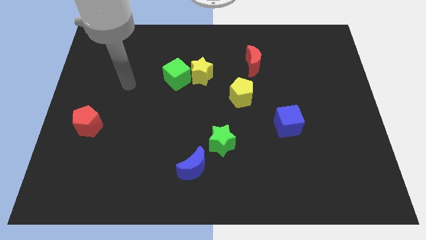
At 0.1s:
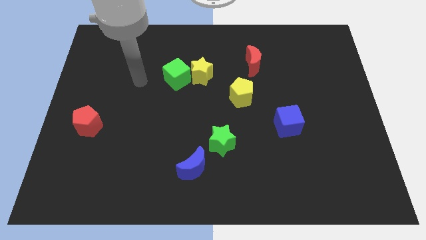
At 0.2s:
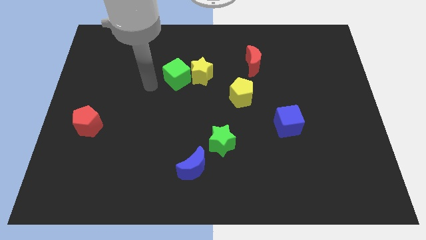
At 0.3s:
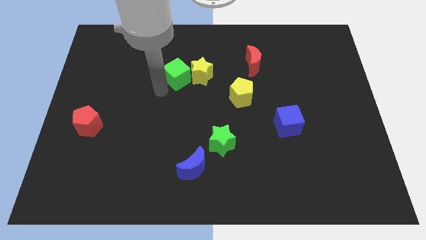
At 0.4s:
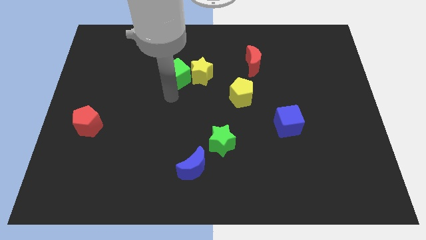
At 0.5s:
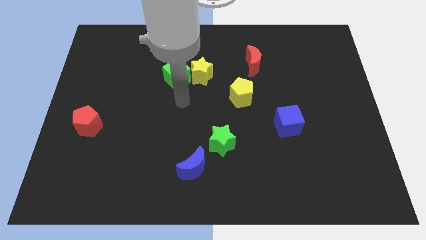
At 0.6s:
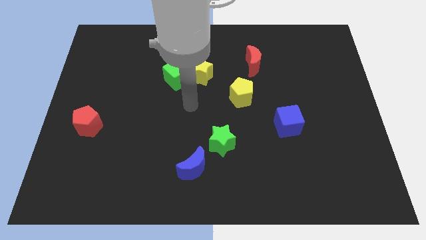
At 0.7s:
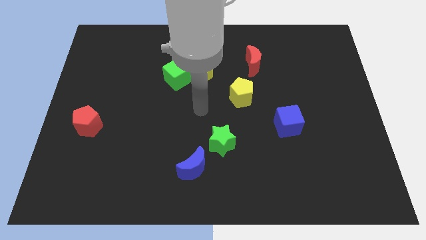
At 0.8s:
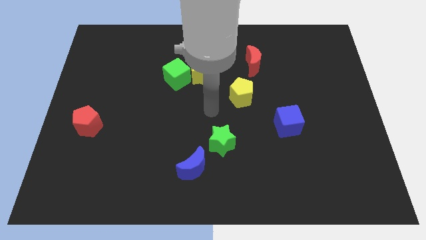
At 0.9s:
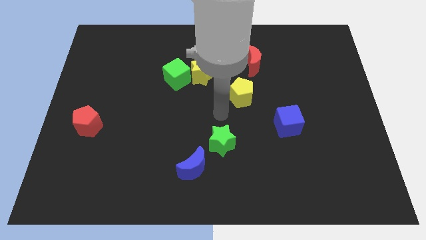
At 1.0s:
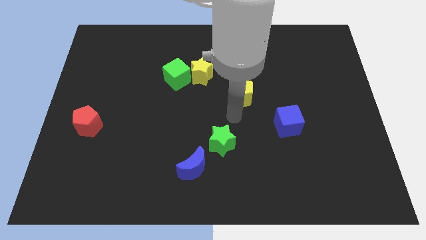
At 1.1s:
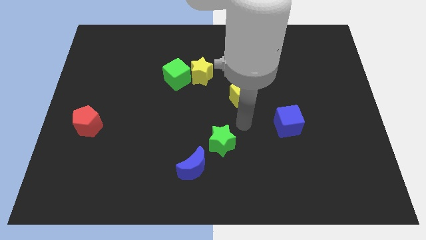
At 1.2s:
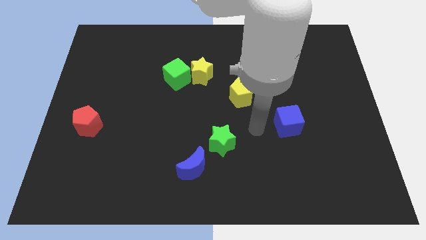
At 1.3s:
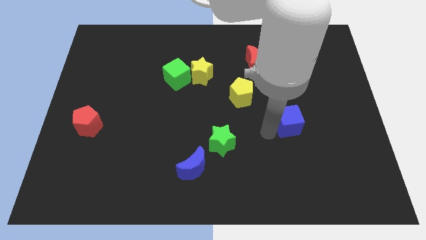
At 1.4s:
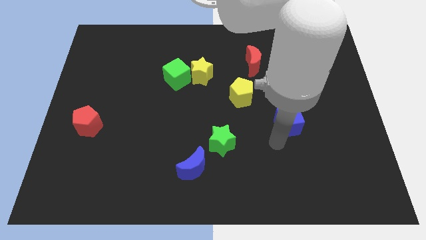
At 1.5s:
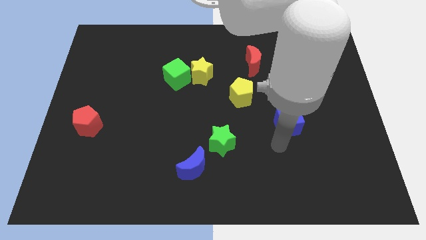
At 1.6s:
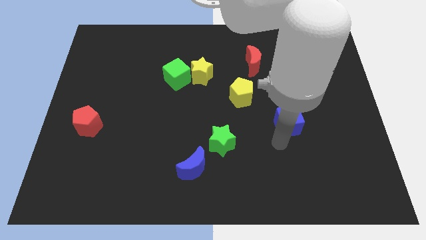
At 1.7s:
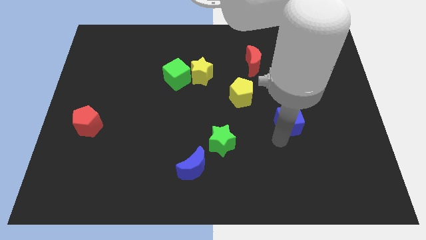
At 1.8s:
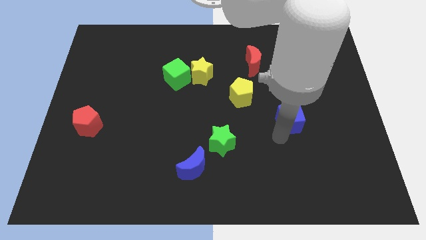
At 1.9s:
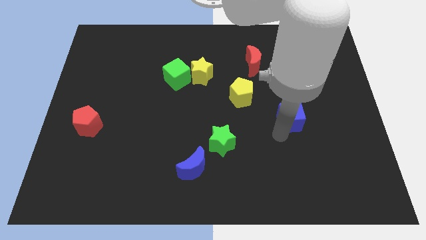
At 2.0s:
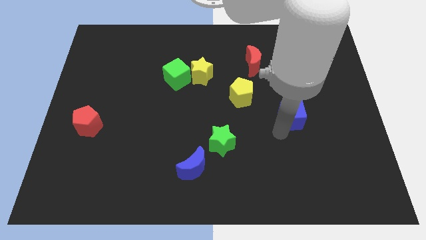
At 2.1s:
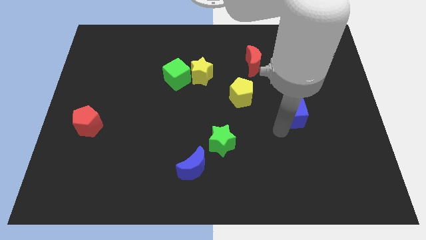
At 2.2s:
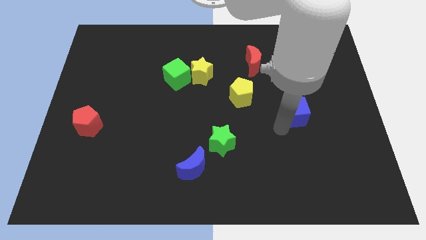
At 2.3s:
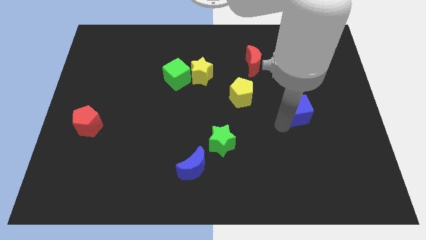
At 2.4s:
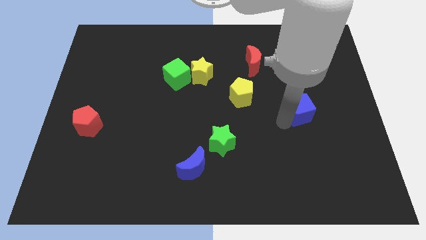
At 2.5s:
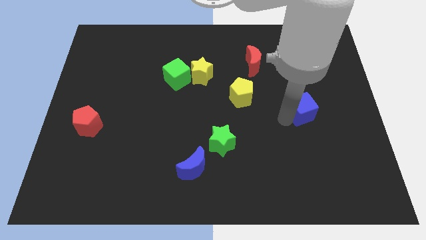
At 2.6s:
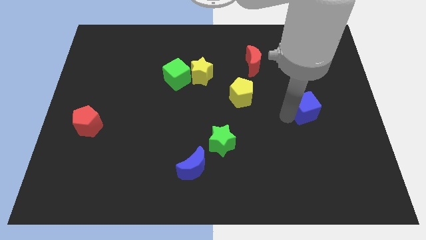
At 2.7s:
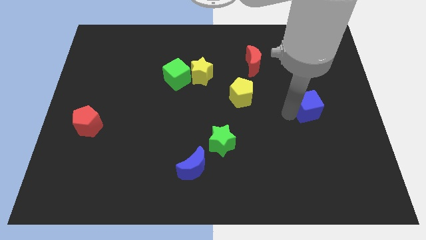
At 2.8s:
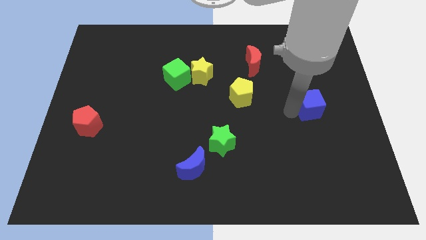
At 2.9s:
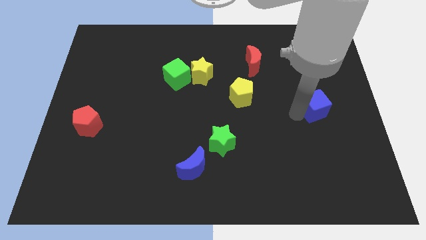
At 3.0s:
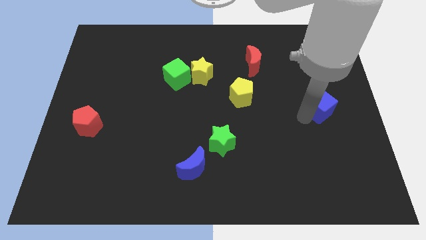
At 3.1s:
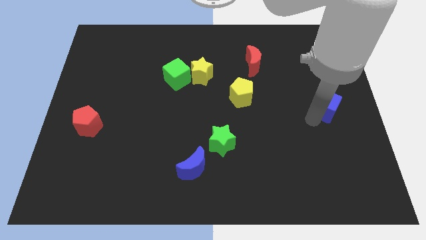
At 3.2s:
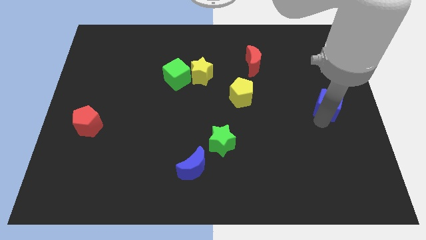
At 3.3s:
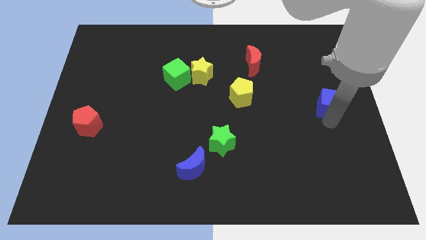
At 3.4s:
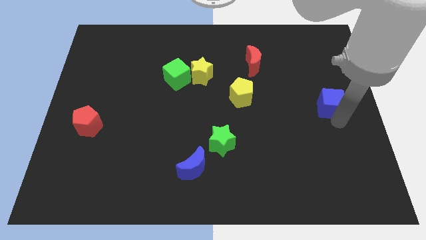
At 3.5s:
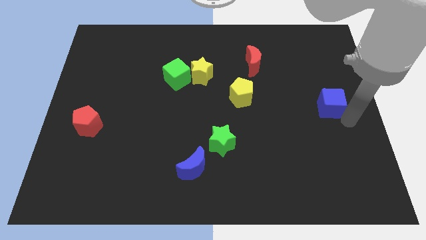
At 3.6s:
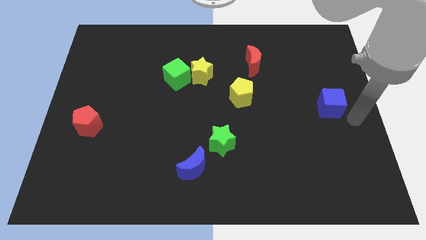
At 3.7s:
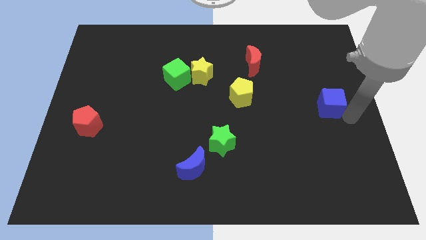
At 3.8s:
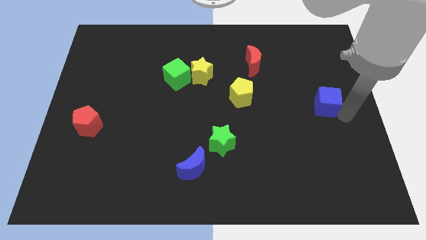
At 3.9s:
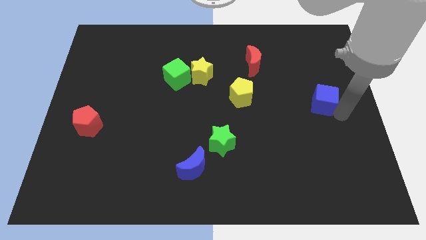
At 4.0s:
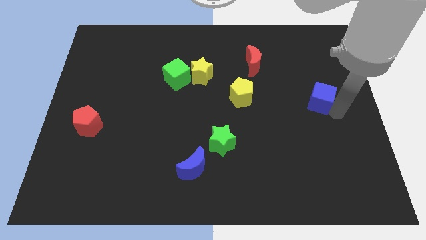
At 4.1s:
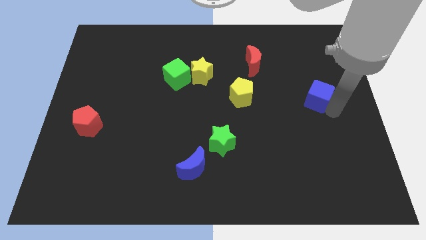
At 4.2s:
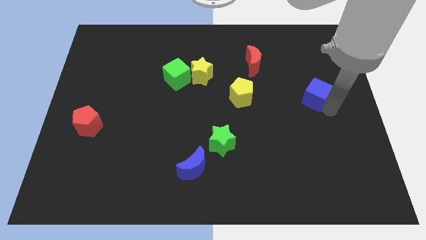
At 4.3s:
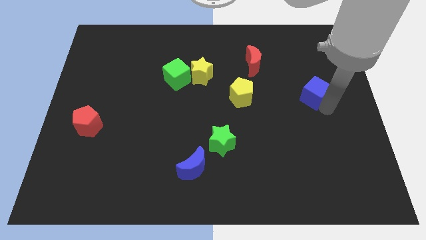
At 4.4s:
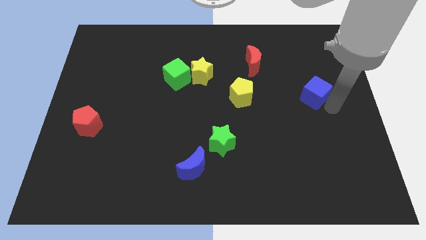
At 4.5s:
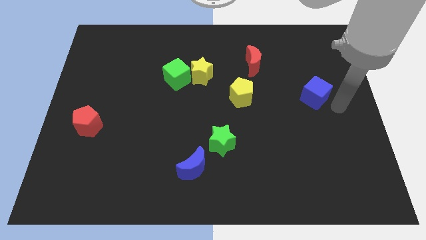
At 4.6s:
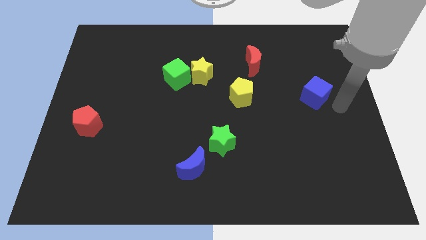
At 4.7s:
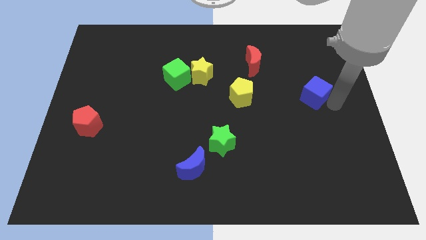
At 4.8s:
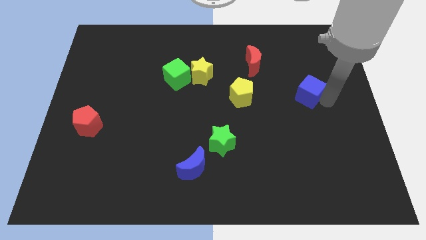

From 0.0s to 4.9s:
move the blue cube upwards somewhat

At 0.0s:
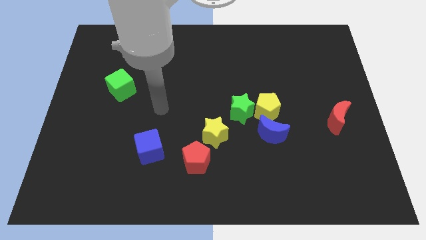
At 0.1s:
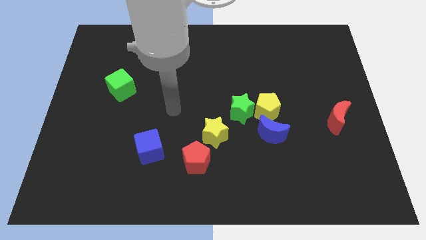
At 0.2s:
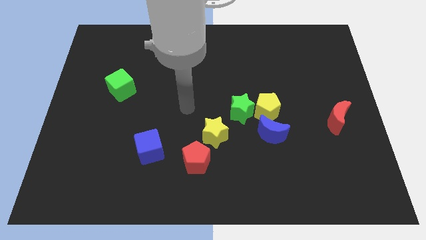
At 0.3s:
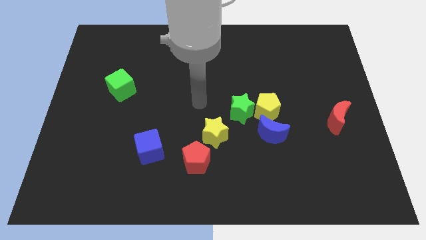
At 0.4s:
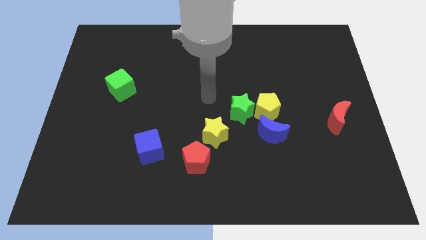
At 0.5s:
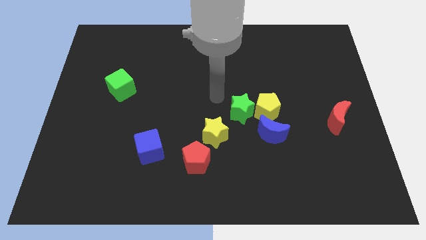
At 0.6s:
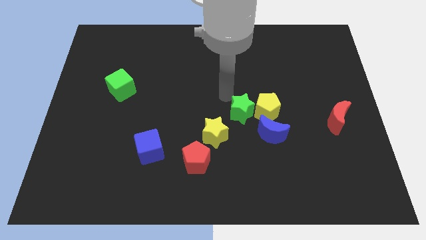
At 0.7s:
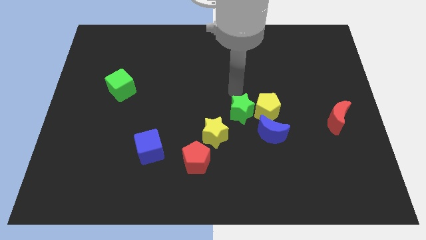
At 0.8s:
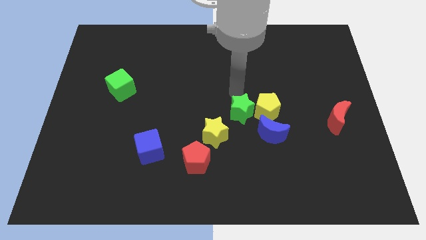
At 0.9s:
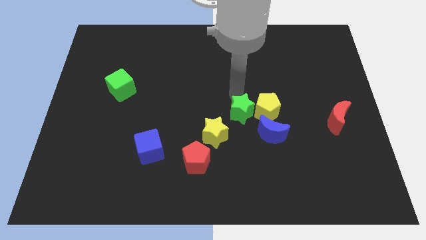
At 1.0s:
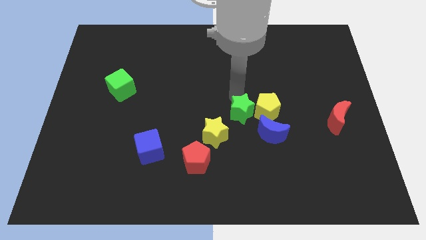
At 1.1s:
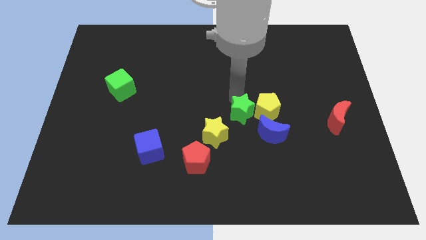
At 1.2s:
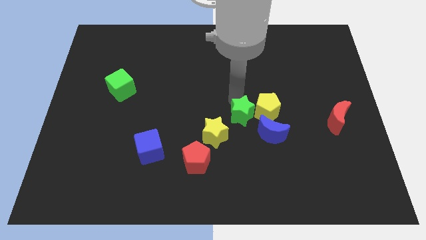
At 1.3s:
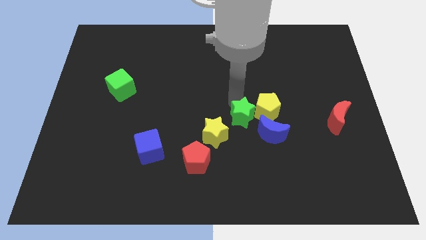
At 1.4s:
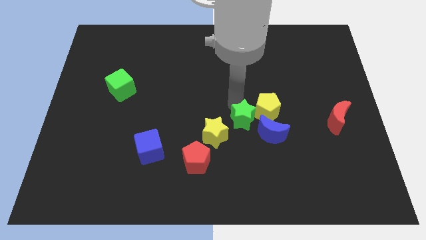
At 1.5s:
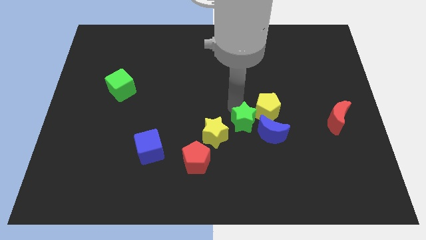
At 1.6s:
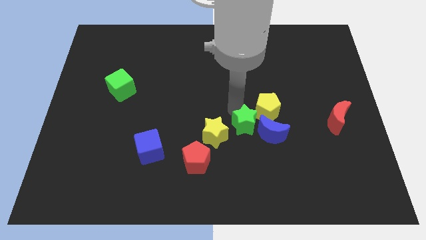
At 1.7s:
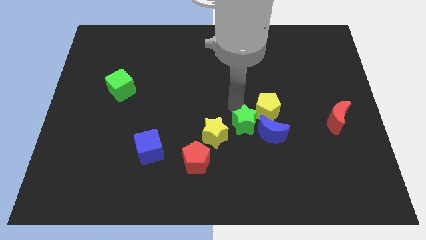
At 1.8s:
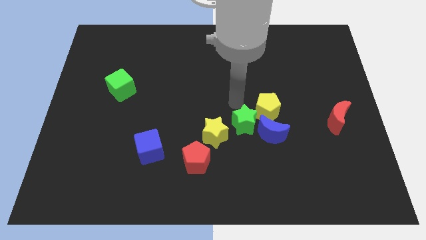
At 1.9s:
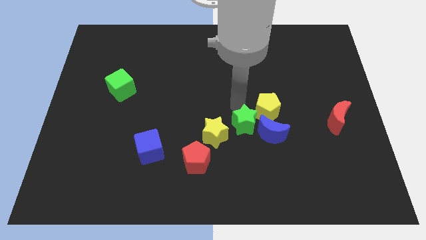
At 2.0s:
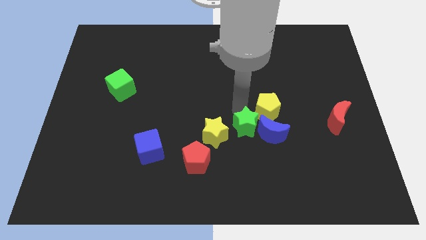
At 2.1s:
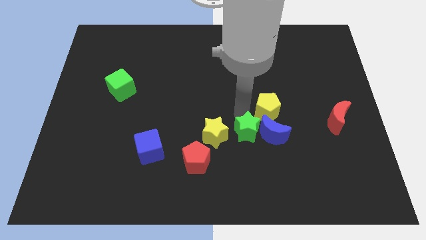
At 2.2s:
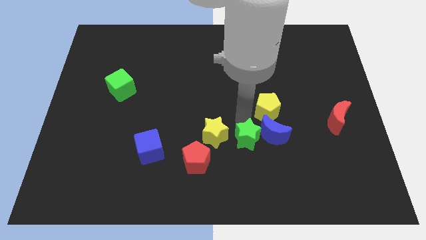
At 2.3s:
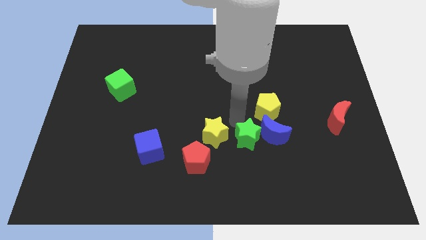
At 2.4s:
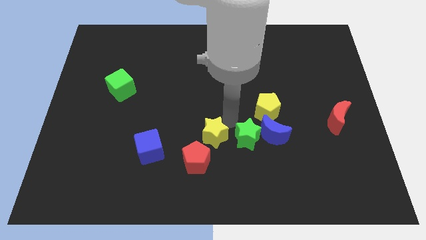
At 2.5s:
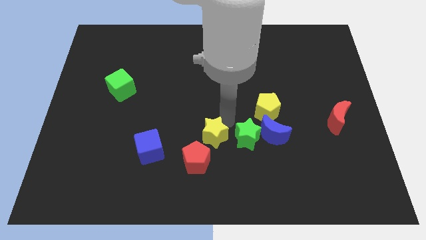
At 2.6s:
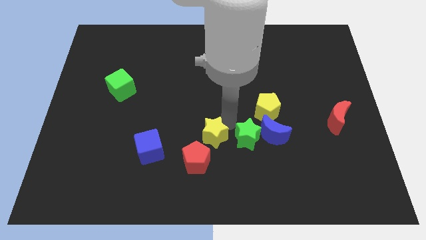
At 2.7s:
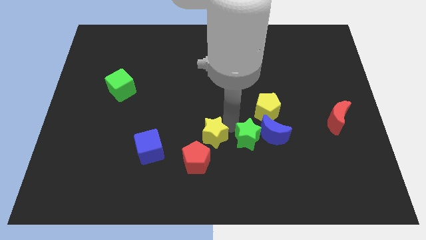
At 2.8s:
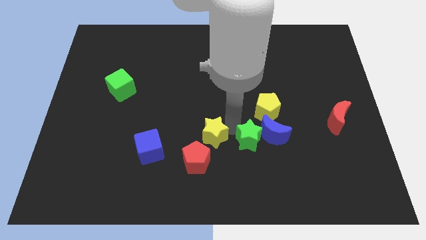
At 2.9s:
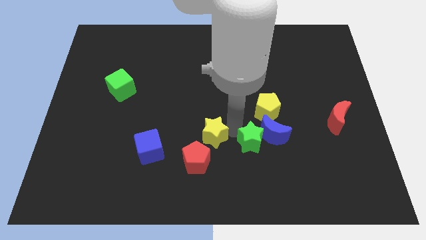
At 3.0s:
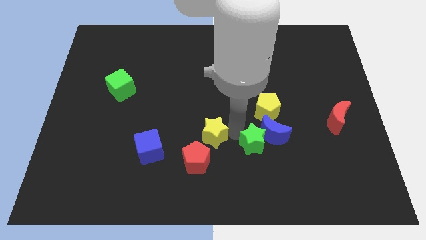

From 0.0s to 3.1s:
slightly move the green star diagonally downwards and right

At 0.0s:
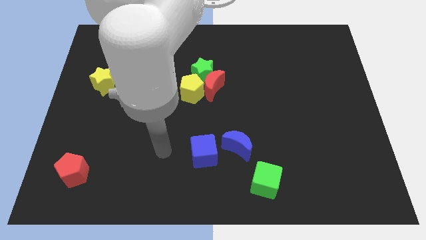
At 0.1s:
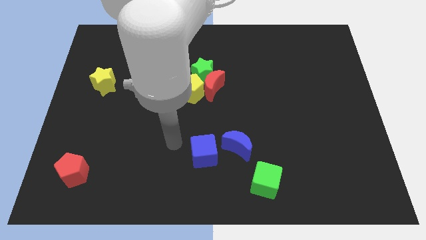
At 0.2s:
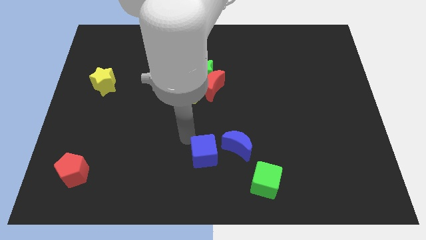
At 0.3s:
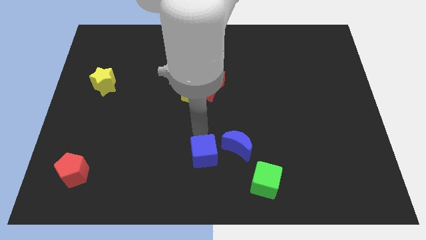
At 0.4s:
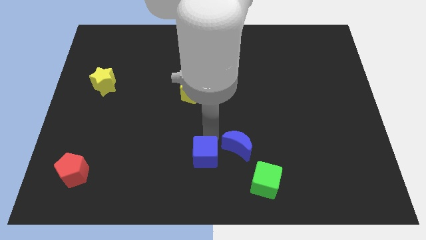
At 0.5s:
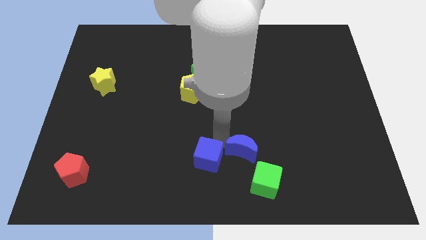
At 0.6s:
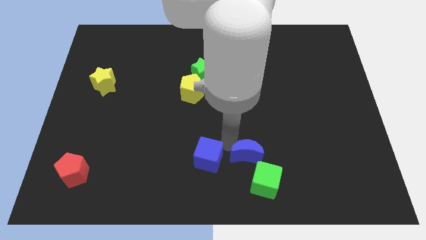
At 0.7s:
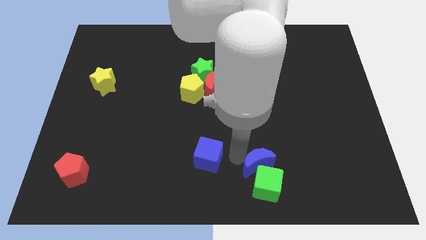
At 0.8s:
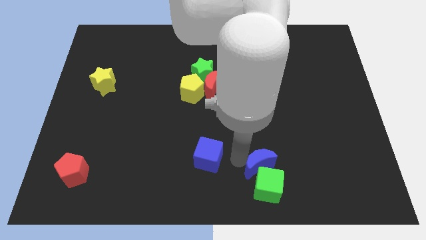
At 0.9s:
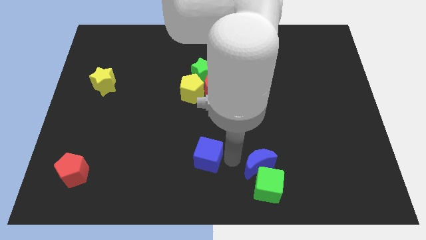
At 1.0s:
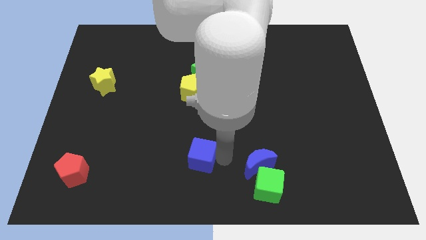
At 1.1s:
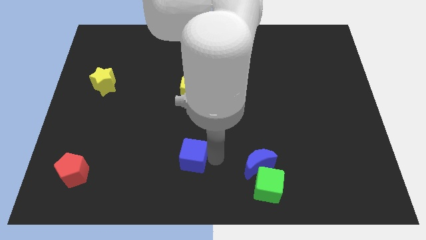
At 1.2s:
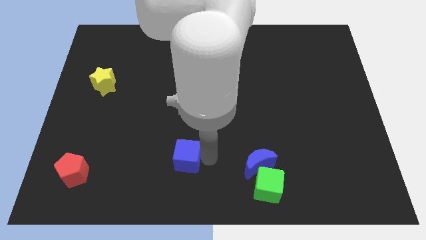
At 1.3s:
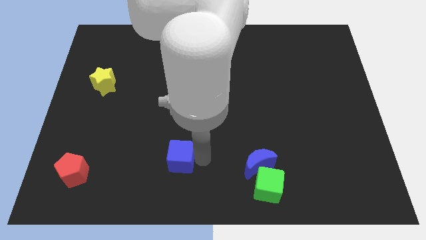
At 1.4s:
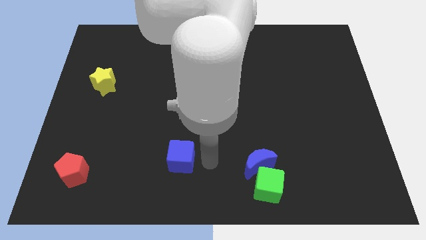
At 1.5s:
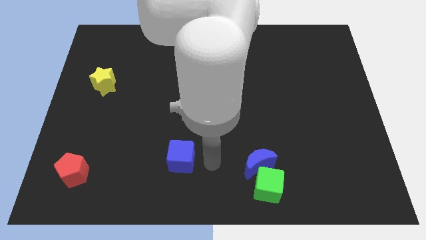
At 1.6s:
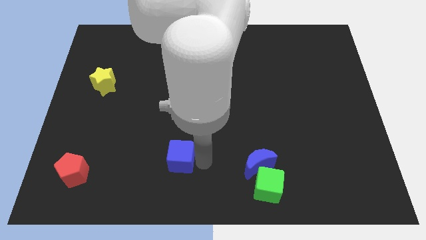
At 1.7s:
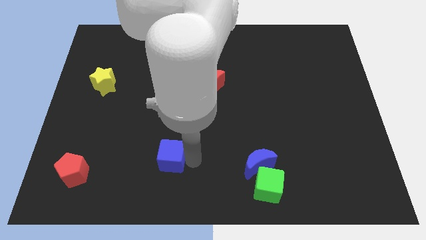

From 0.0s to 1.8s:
slide the blue cube slightly left
